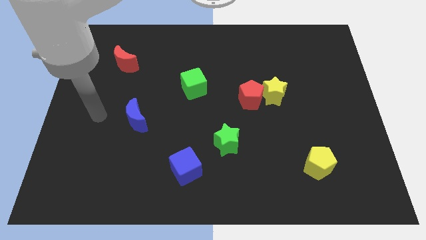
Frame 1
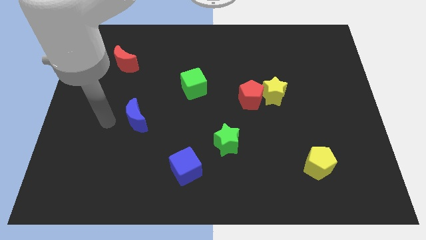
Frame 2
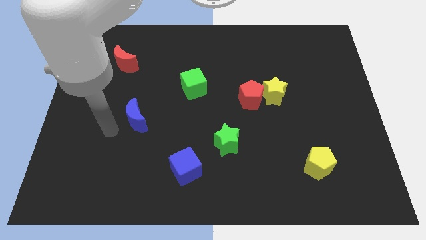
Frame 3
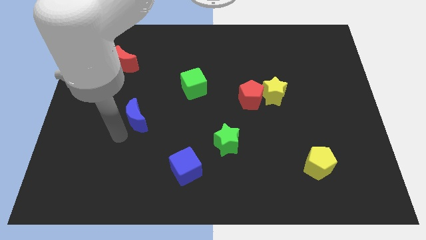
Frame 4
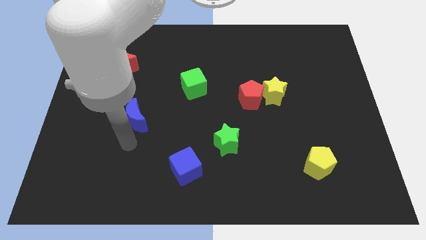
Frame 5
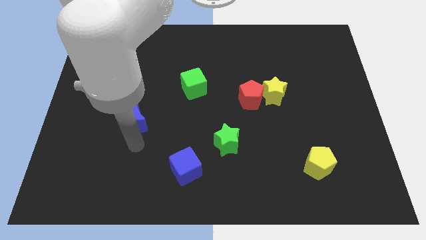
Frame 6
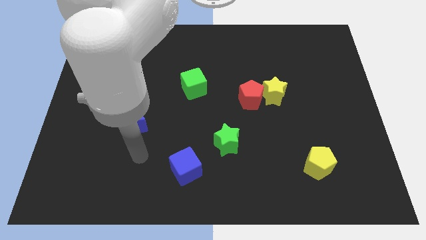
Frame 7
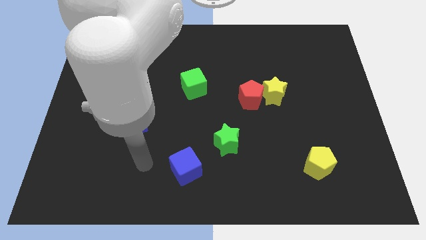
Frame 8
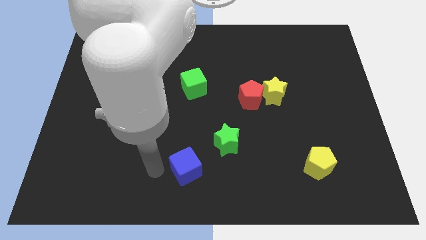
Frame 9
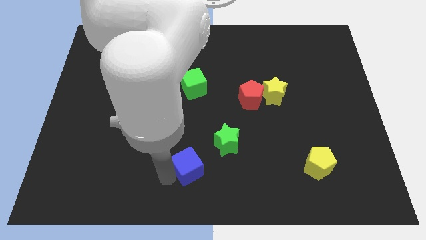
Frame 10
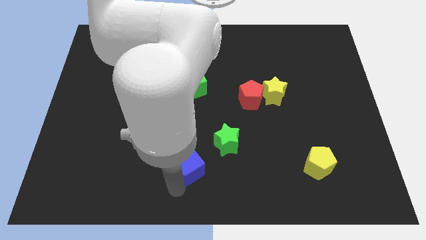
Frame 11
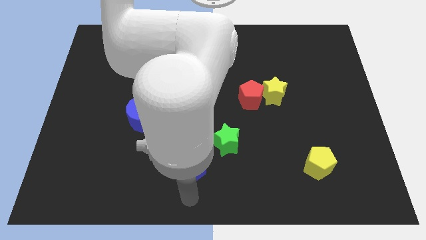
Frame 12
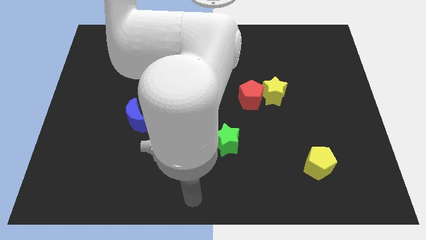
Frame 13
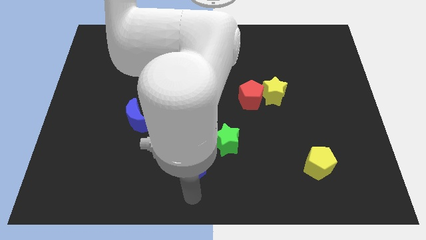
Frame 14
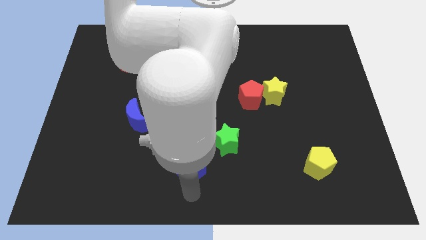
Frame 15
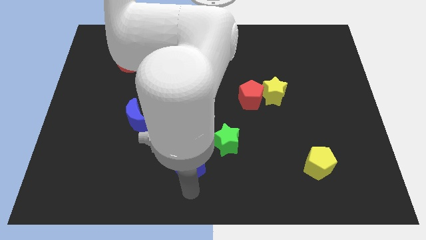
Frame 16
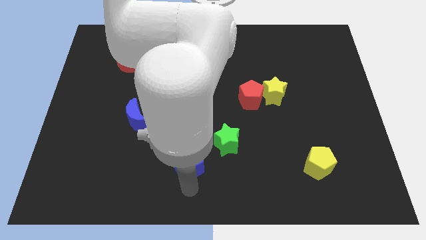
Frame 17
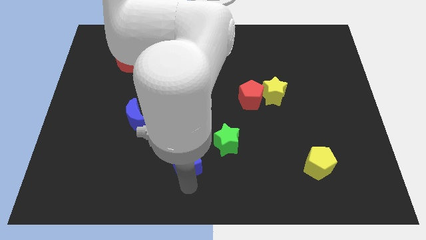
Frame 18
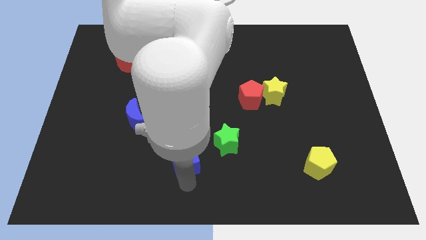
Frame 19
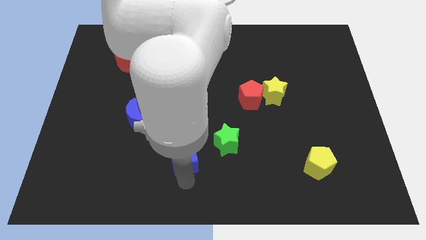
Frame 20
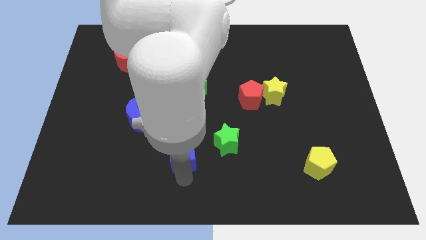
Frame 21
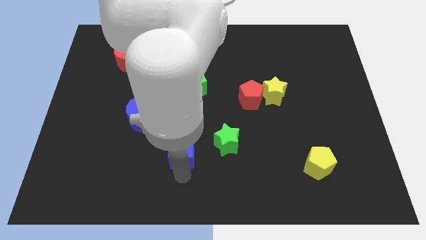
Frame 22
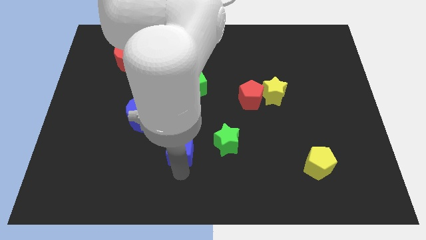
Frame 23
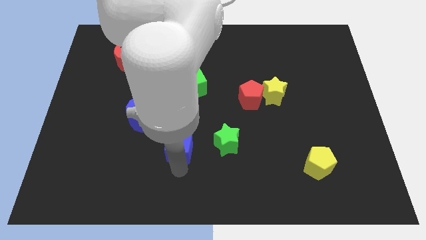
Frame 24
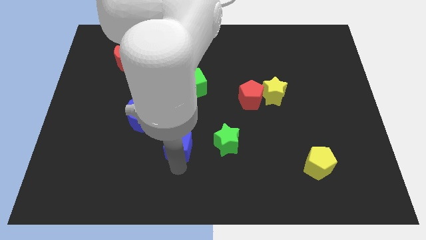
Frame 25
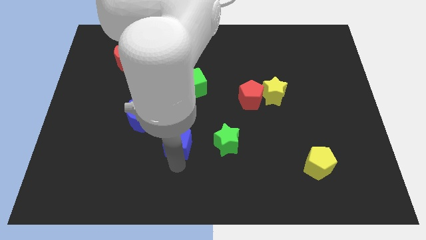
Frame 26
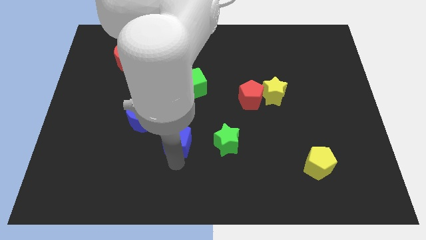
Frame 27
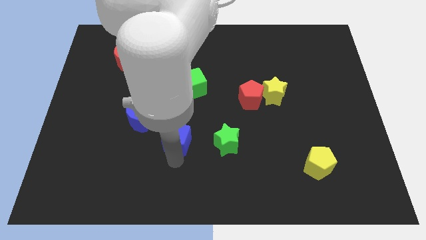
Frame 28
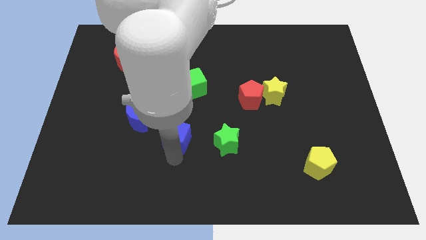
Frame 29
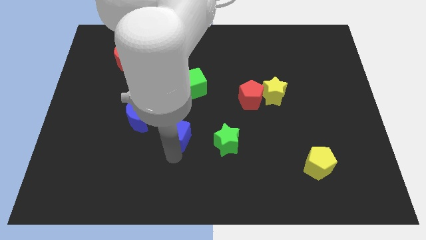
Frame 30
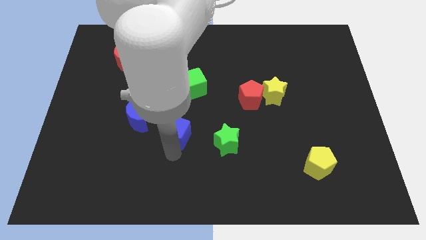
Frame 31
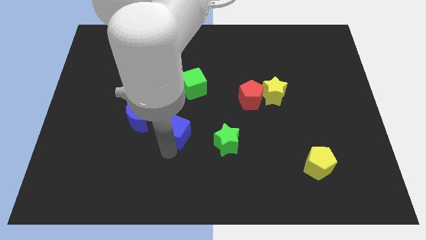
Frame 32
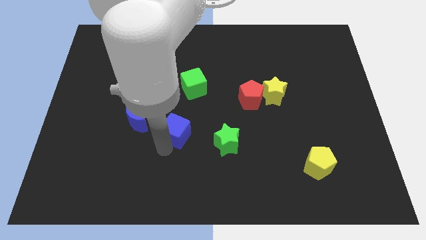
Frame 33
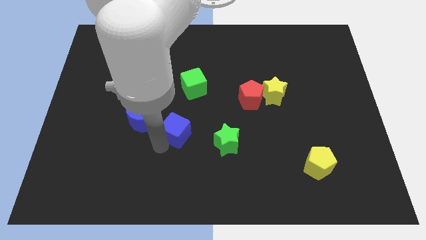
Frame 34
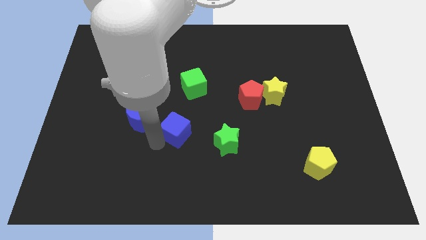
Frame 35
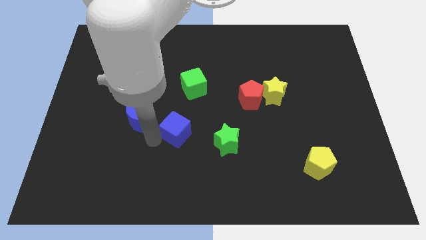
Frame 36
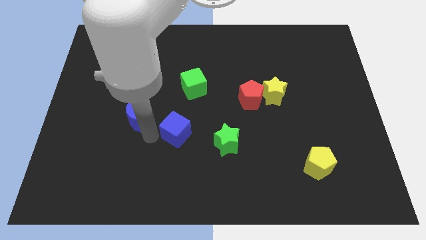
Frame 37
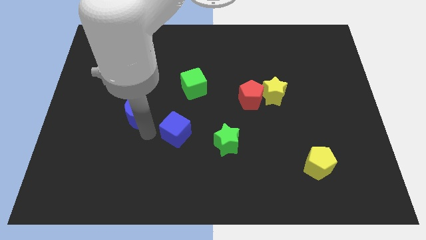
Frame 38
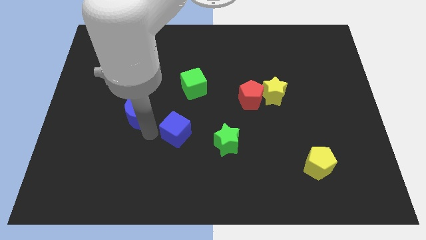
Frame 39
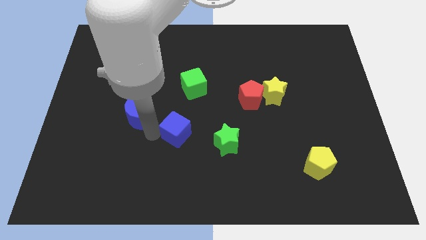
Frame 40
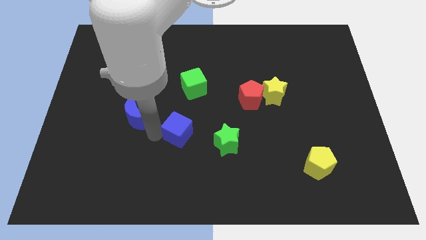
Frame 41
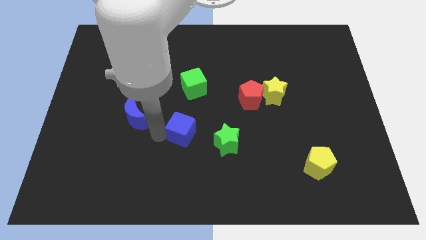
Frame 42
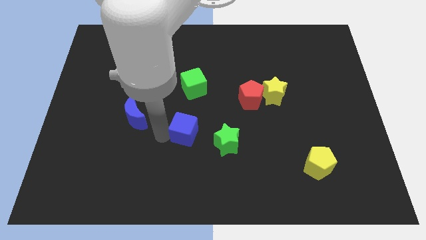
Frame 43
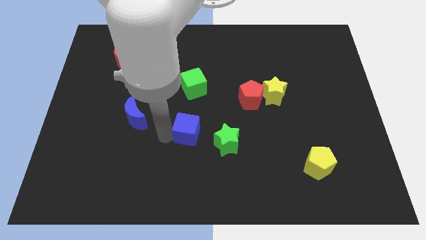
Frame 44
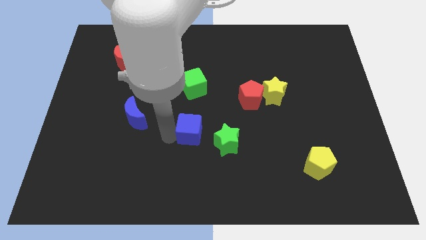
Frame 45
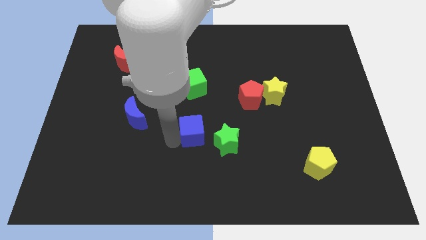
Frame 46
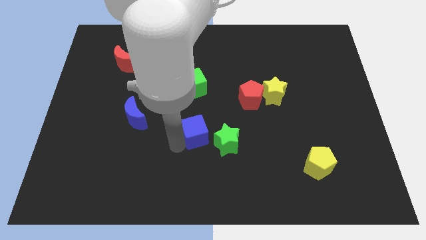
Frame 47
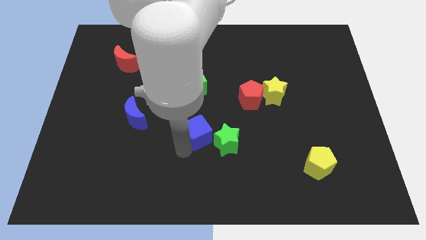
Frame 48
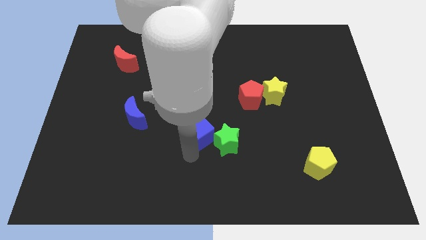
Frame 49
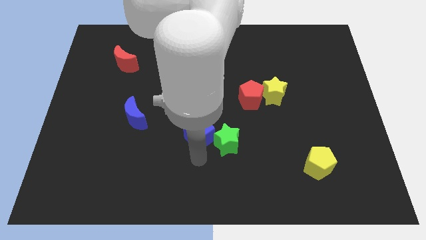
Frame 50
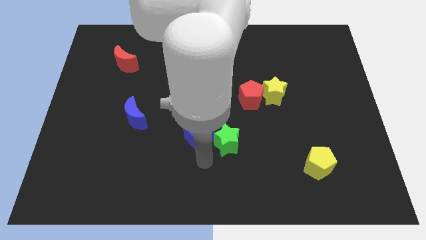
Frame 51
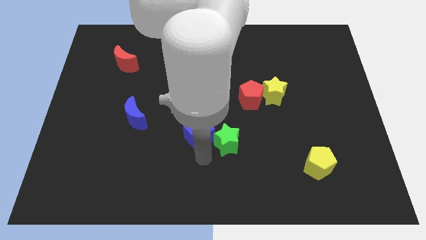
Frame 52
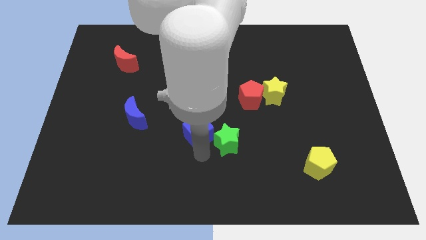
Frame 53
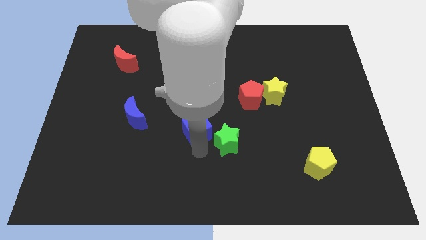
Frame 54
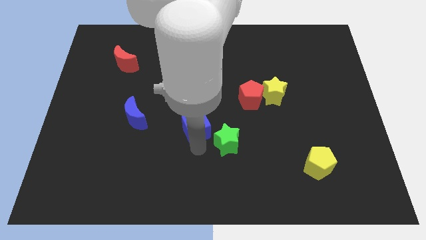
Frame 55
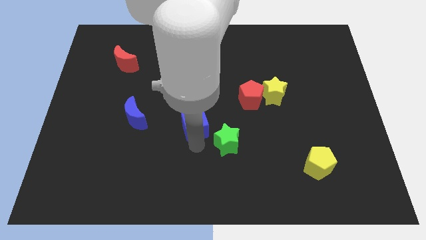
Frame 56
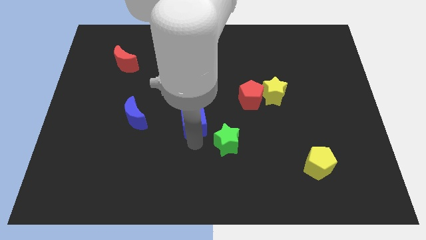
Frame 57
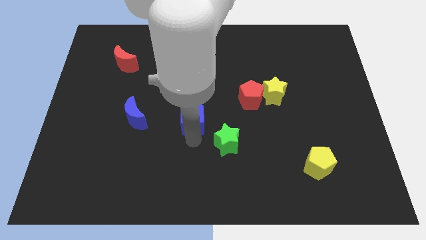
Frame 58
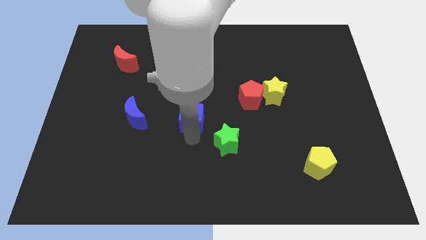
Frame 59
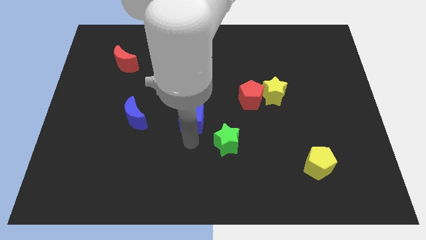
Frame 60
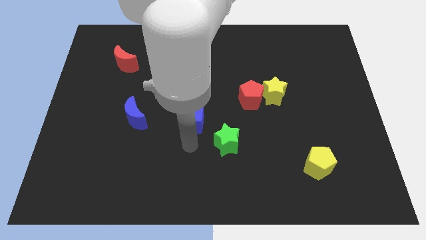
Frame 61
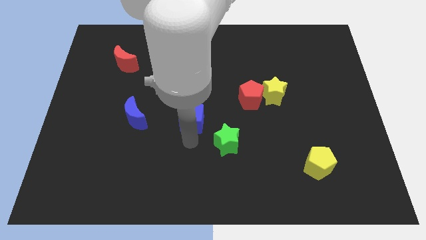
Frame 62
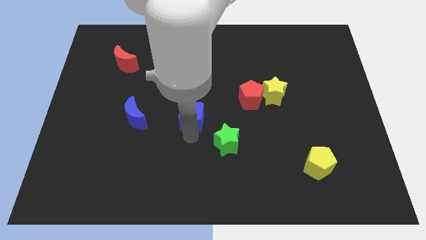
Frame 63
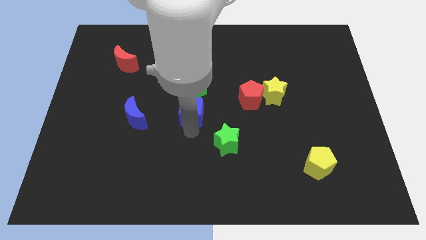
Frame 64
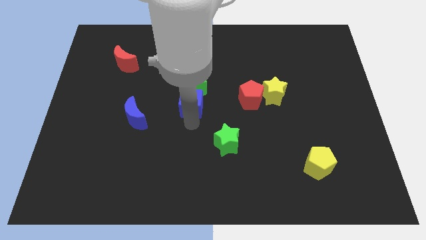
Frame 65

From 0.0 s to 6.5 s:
push the blue cube close to the green cube

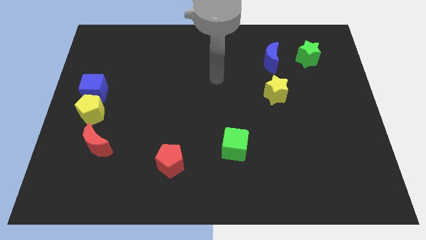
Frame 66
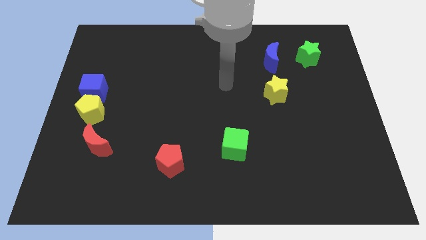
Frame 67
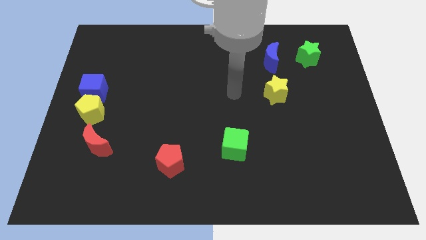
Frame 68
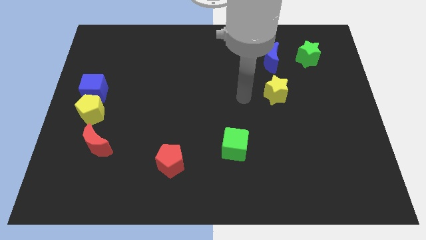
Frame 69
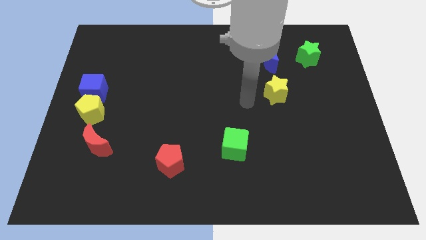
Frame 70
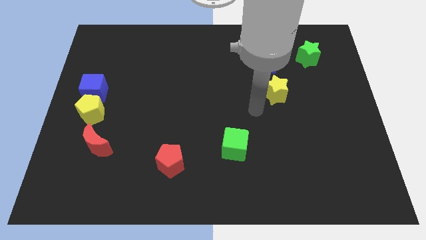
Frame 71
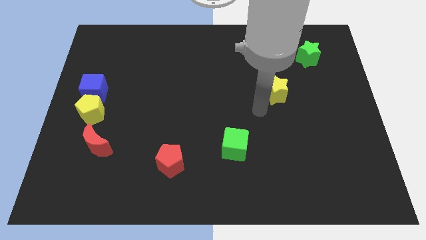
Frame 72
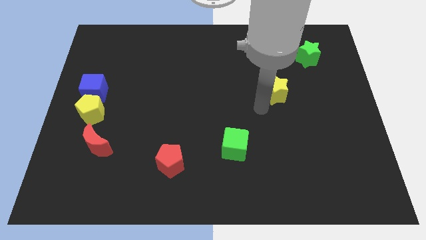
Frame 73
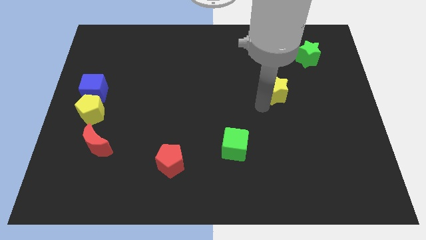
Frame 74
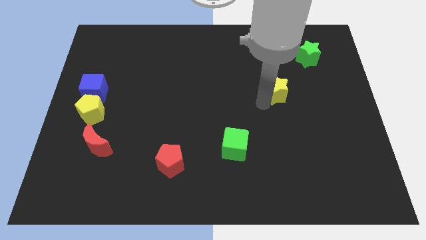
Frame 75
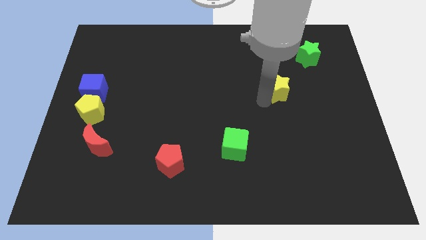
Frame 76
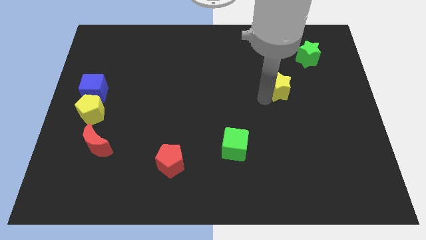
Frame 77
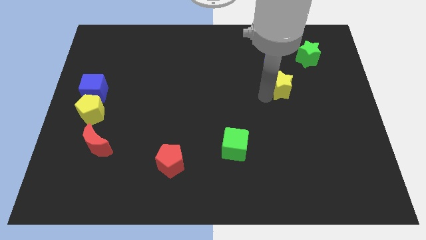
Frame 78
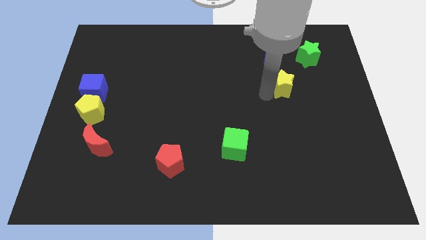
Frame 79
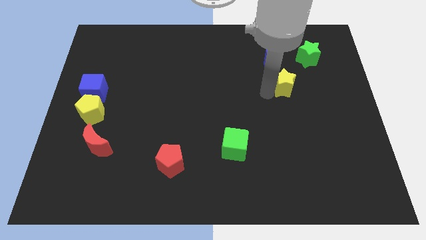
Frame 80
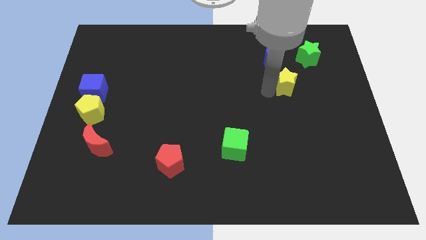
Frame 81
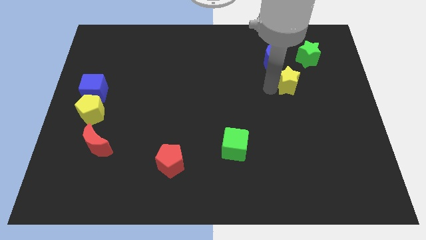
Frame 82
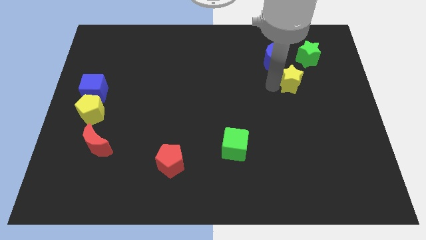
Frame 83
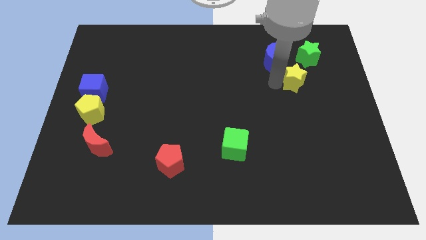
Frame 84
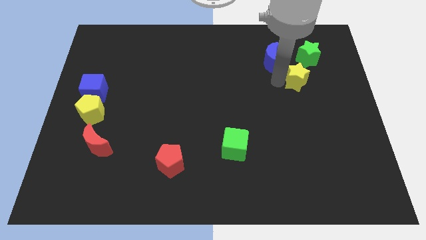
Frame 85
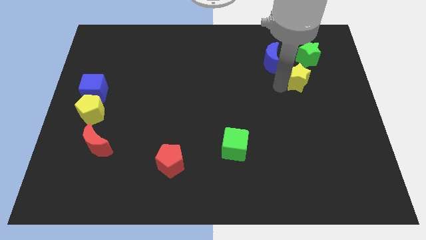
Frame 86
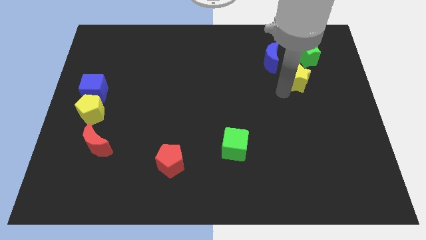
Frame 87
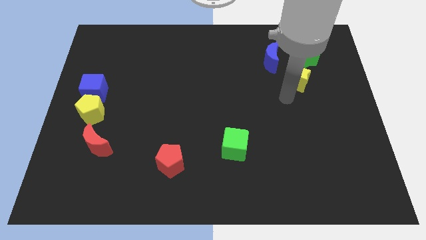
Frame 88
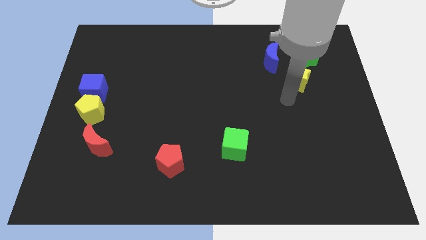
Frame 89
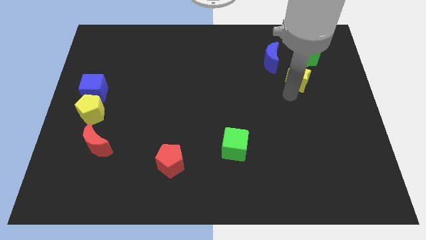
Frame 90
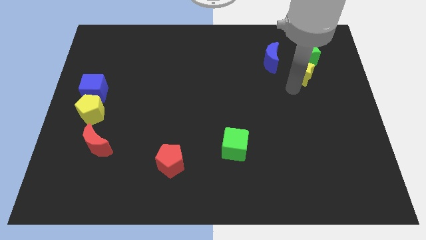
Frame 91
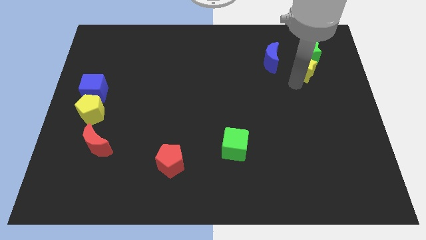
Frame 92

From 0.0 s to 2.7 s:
put the yellow star close to the green star
